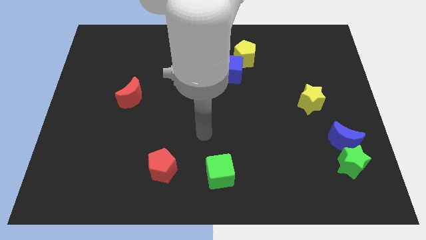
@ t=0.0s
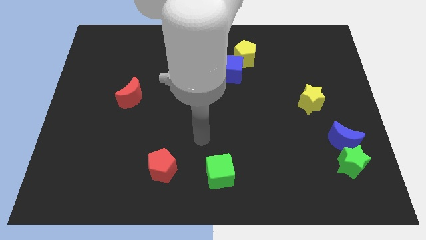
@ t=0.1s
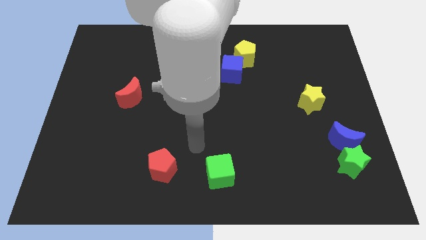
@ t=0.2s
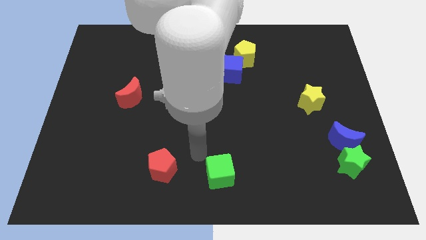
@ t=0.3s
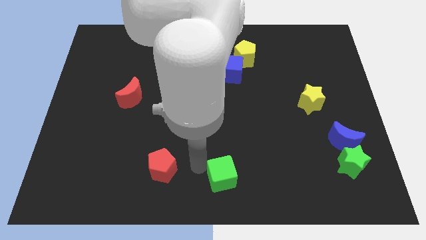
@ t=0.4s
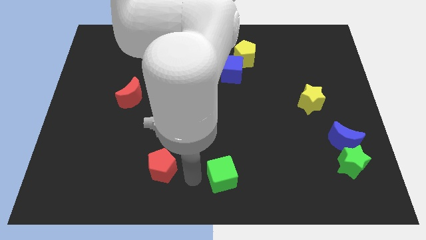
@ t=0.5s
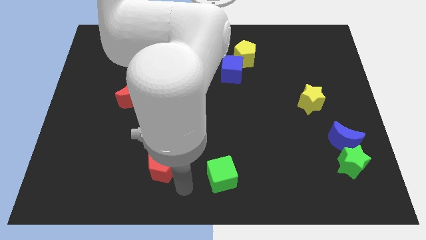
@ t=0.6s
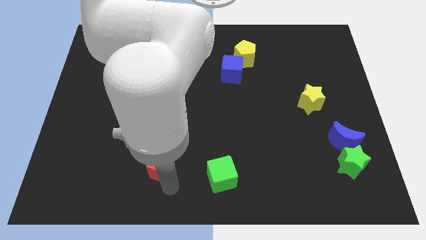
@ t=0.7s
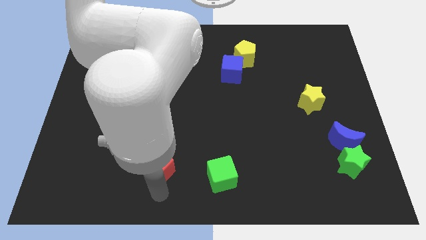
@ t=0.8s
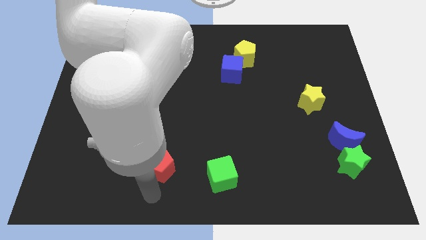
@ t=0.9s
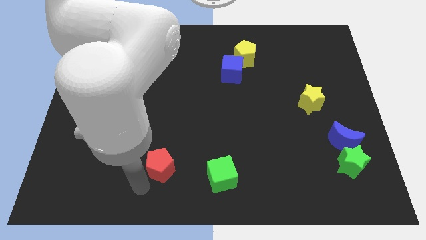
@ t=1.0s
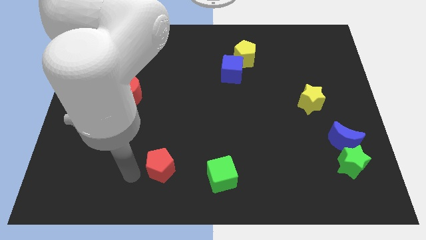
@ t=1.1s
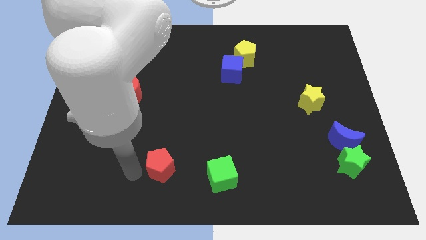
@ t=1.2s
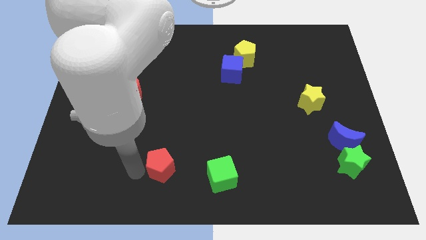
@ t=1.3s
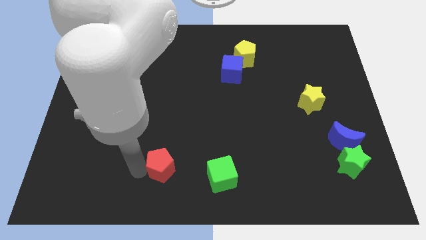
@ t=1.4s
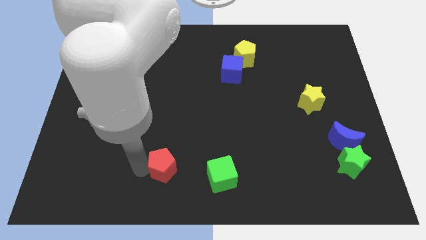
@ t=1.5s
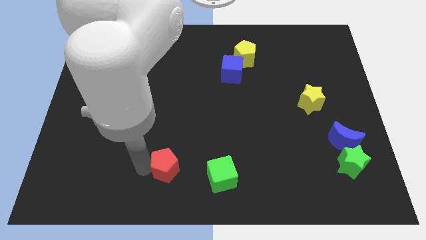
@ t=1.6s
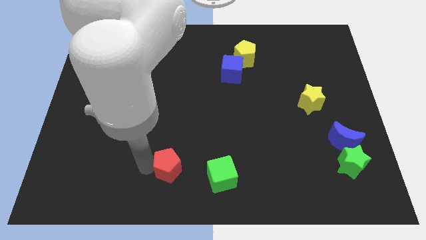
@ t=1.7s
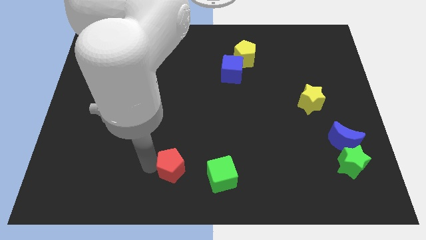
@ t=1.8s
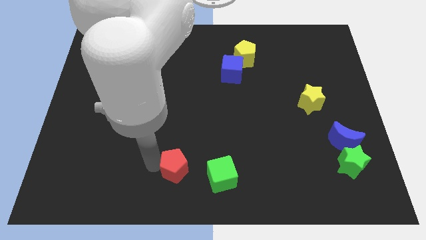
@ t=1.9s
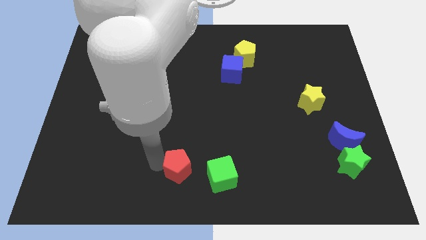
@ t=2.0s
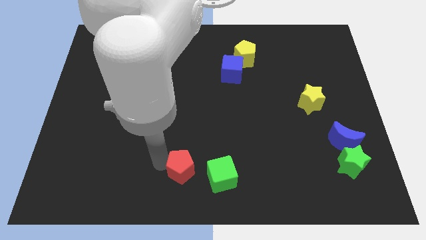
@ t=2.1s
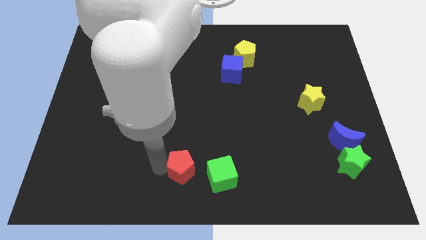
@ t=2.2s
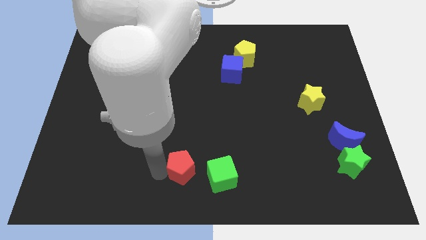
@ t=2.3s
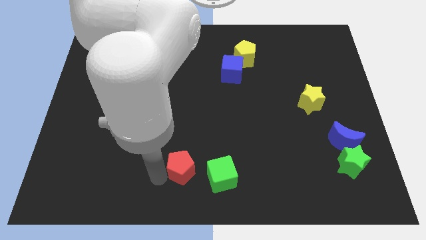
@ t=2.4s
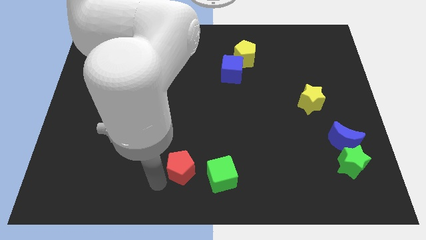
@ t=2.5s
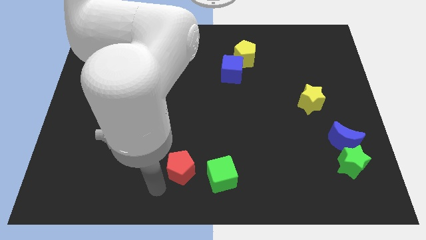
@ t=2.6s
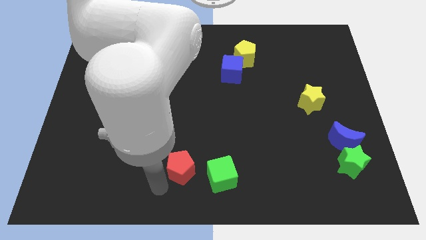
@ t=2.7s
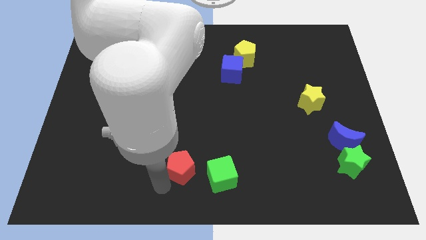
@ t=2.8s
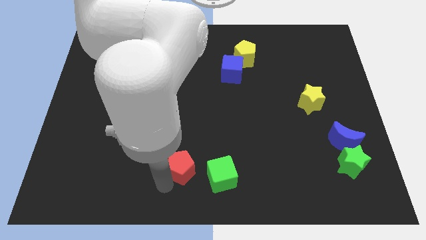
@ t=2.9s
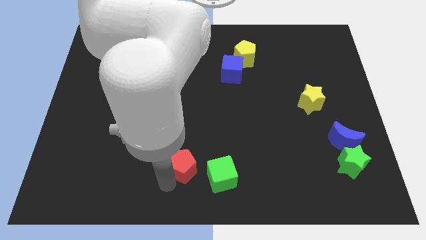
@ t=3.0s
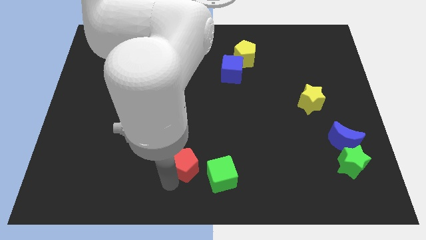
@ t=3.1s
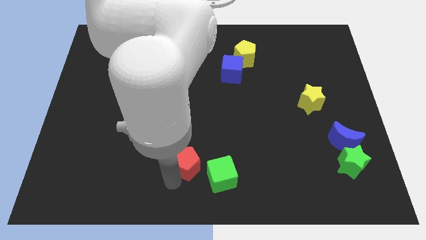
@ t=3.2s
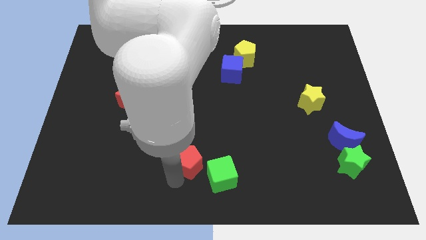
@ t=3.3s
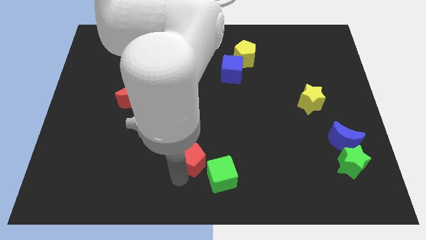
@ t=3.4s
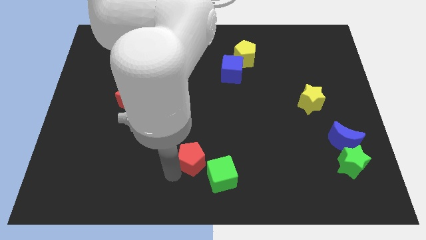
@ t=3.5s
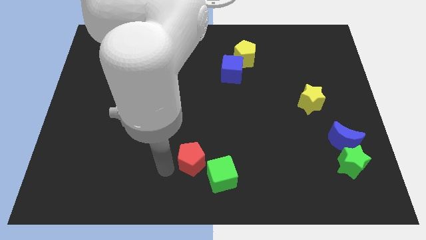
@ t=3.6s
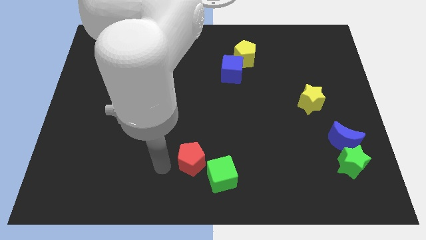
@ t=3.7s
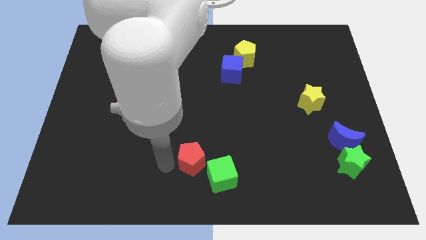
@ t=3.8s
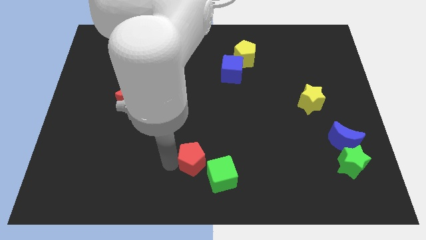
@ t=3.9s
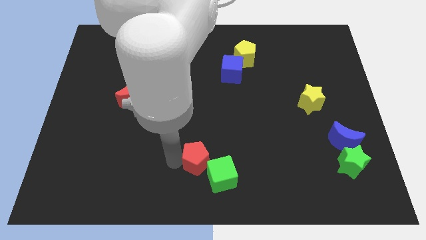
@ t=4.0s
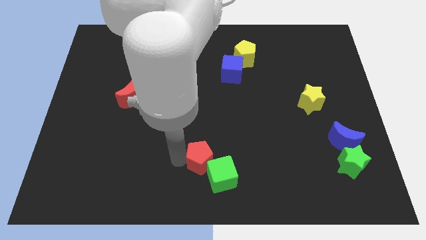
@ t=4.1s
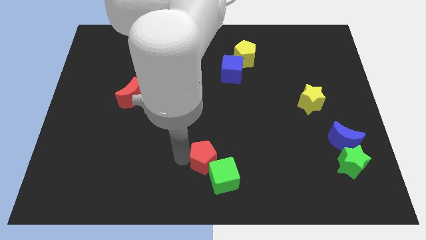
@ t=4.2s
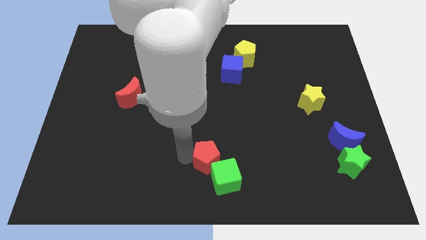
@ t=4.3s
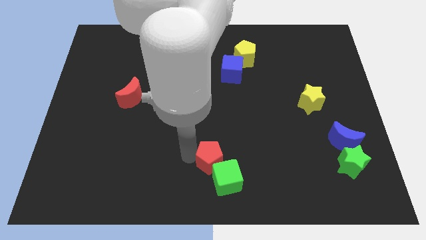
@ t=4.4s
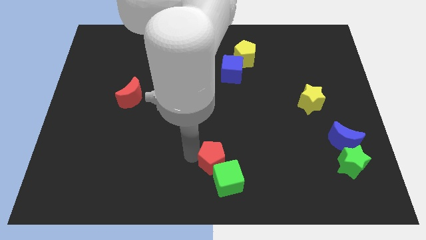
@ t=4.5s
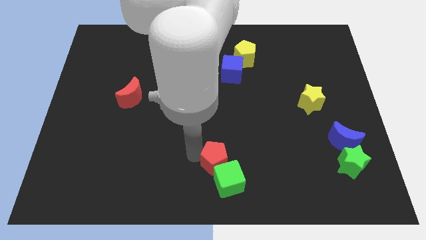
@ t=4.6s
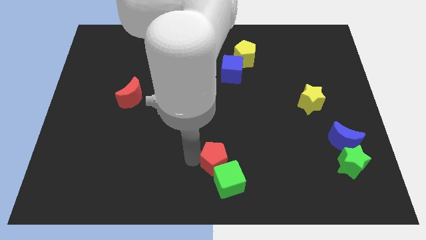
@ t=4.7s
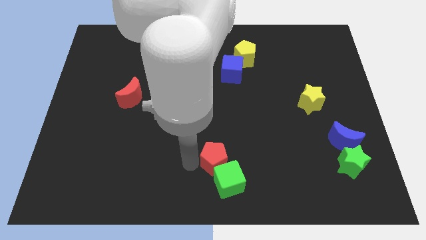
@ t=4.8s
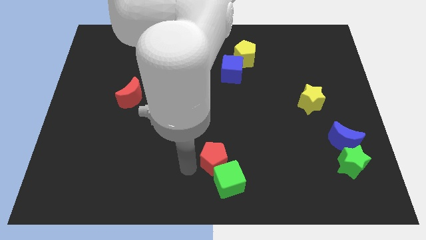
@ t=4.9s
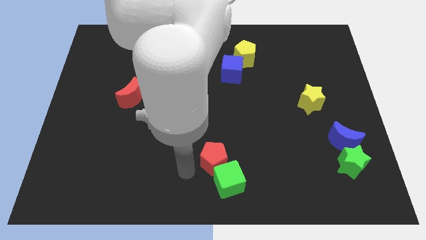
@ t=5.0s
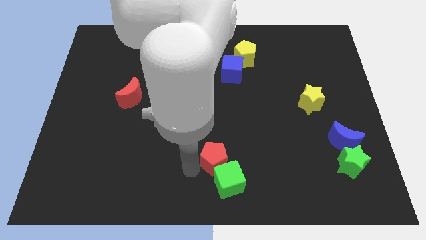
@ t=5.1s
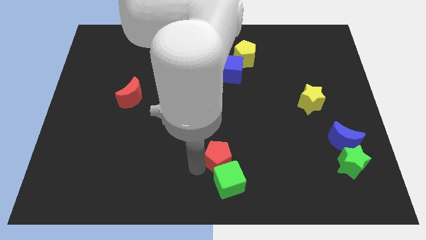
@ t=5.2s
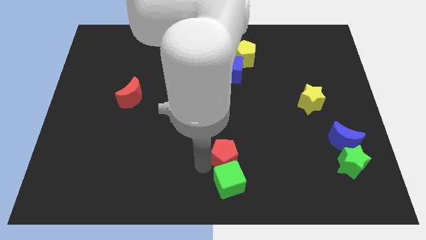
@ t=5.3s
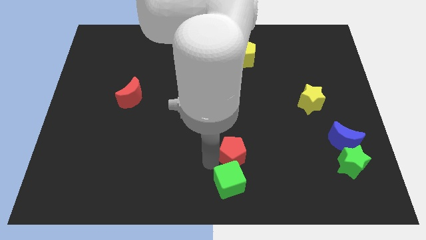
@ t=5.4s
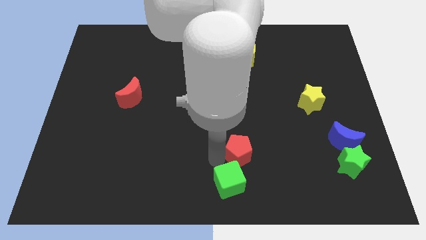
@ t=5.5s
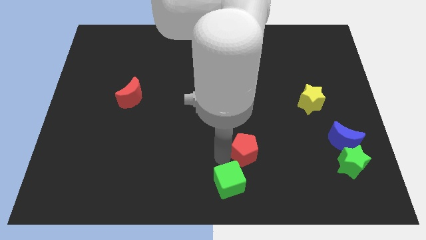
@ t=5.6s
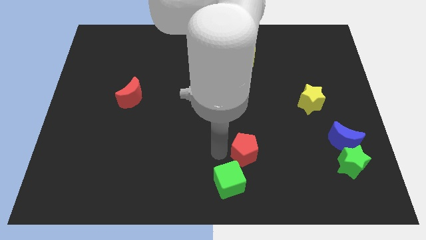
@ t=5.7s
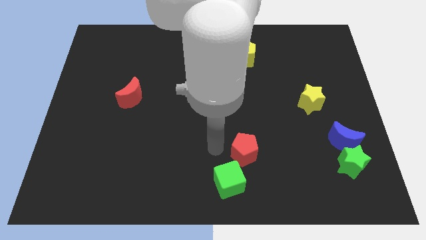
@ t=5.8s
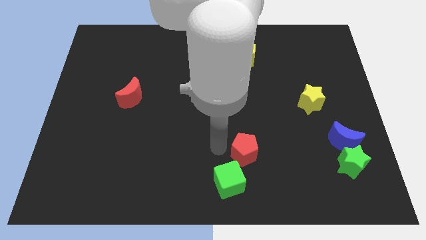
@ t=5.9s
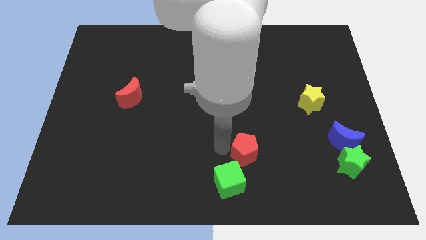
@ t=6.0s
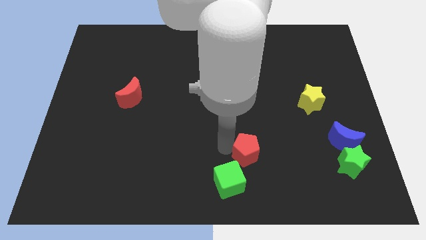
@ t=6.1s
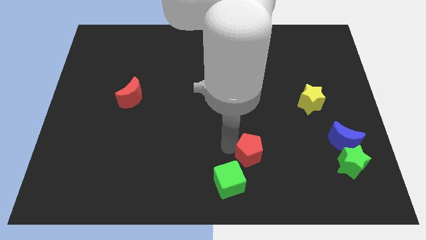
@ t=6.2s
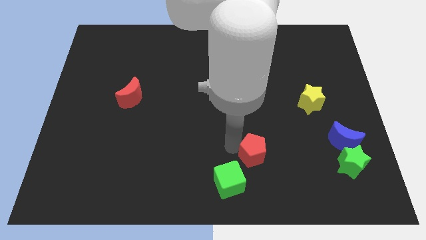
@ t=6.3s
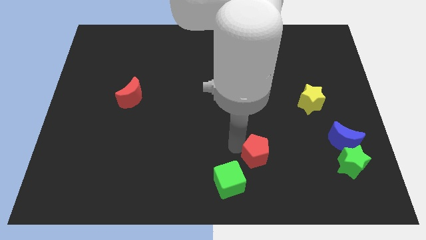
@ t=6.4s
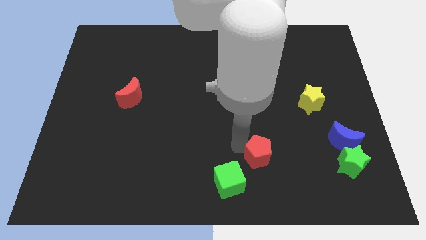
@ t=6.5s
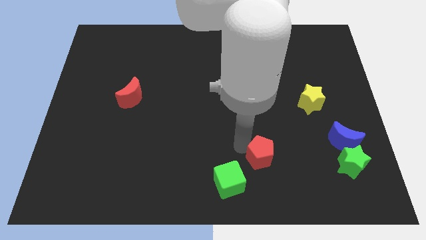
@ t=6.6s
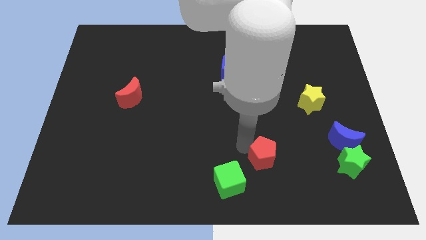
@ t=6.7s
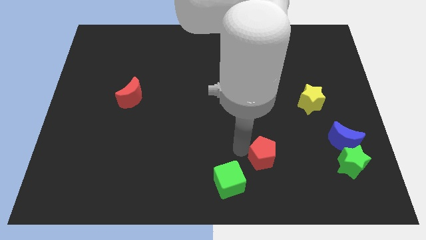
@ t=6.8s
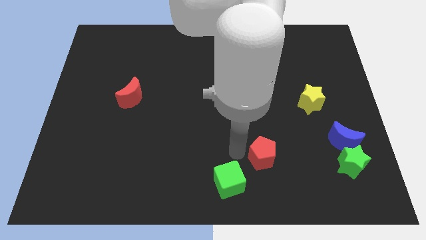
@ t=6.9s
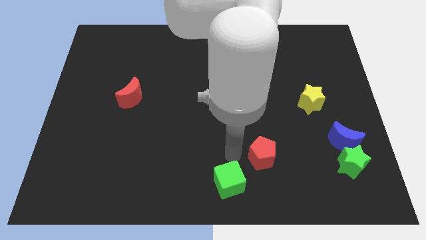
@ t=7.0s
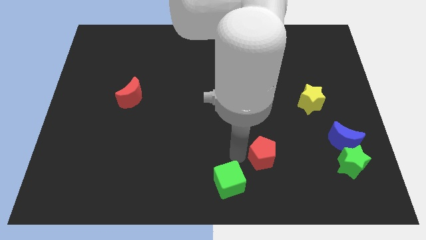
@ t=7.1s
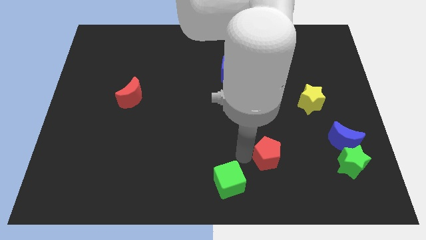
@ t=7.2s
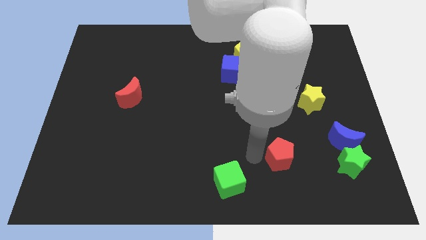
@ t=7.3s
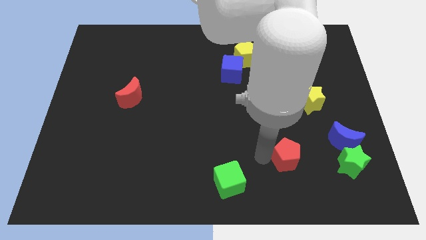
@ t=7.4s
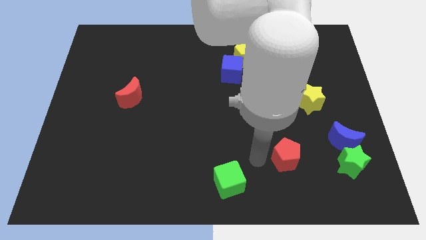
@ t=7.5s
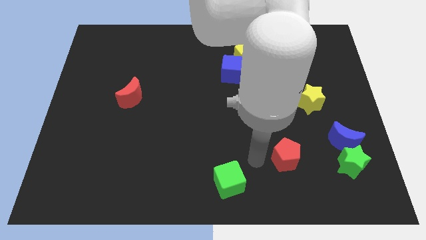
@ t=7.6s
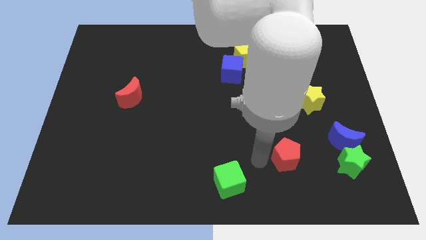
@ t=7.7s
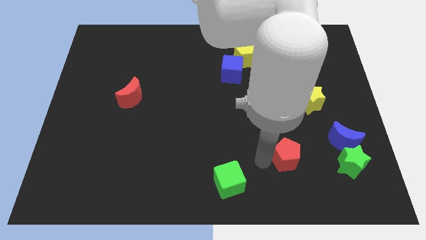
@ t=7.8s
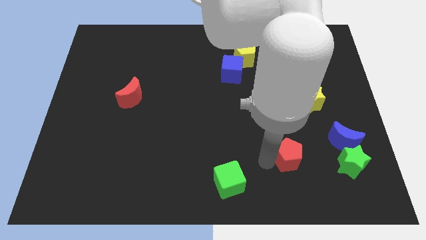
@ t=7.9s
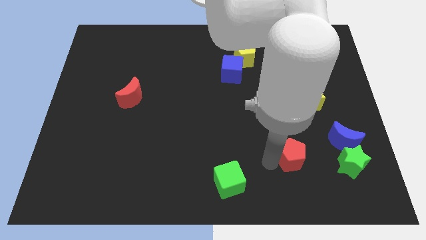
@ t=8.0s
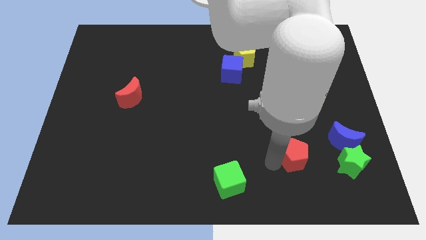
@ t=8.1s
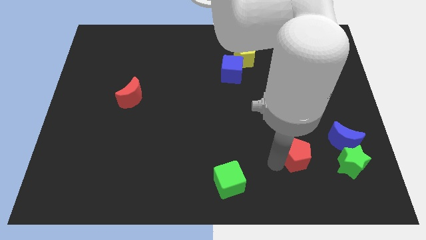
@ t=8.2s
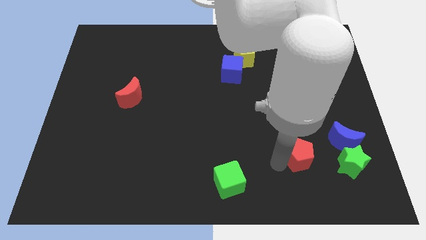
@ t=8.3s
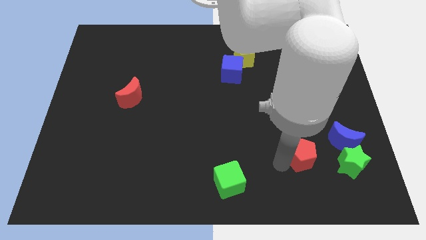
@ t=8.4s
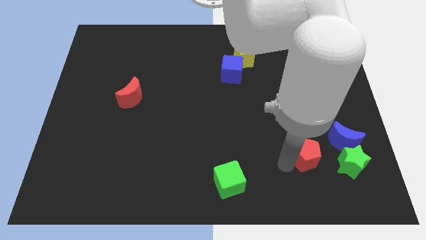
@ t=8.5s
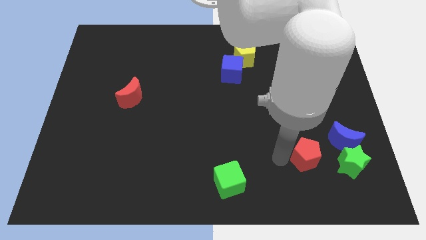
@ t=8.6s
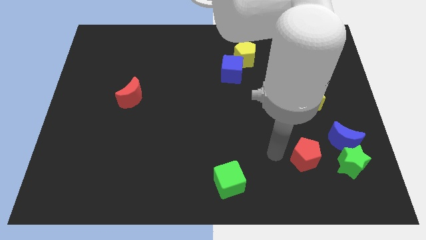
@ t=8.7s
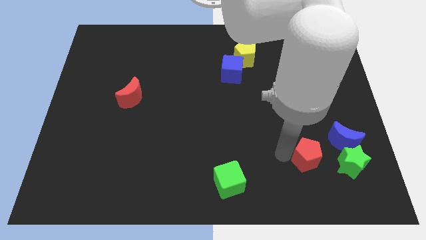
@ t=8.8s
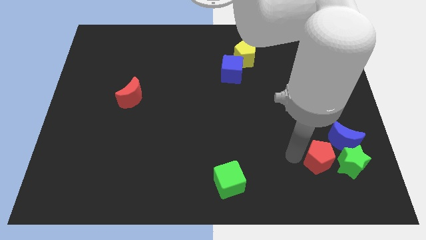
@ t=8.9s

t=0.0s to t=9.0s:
push the red pentagon next to the green star
